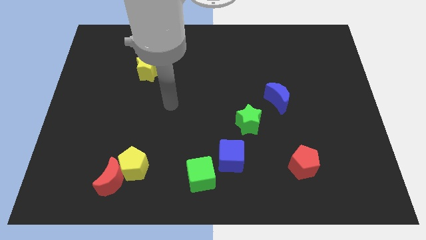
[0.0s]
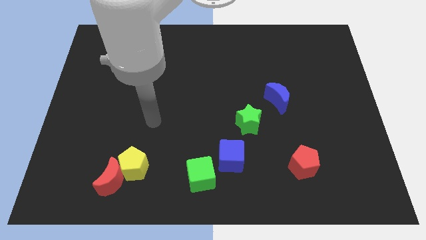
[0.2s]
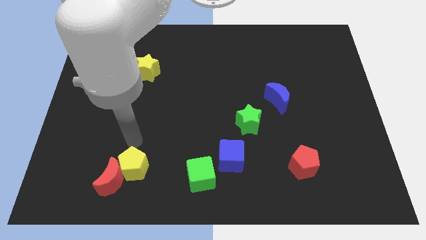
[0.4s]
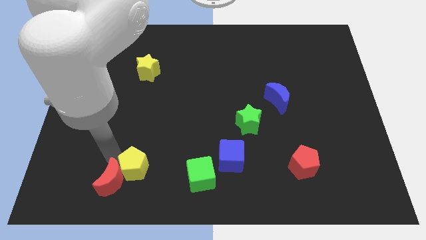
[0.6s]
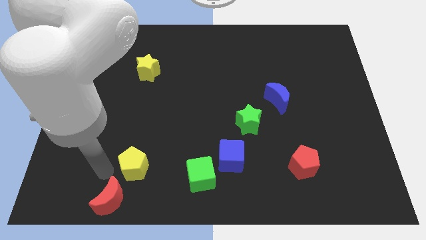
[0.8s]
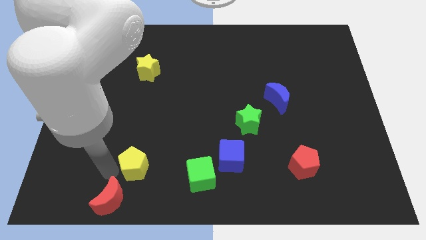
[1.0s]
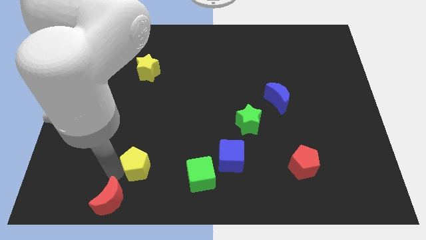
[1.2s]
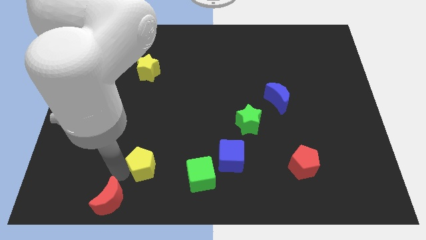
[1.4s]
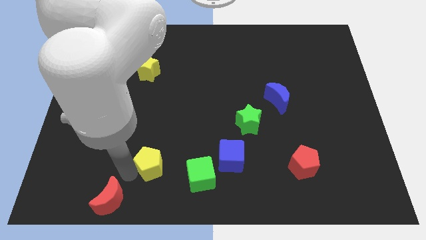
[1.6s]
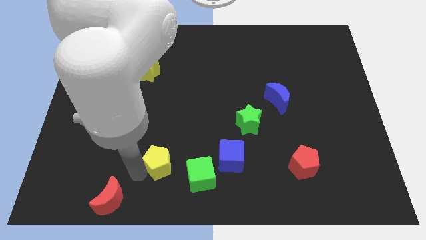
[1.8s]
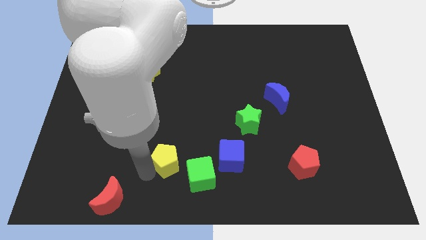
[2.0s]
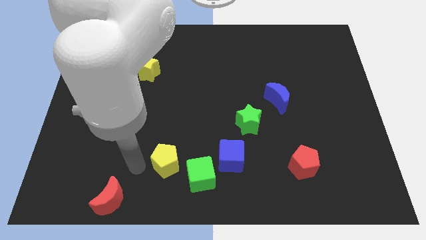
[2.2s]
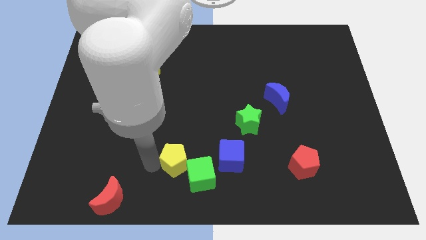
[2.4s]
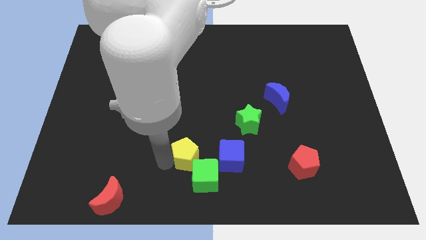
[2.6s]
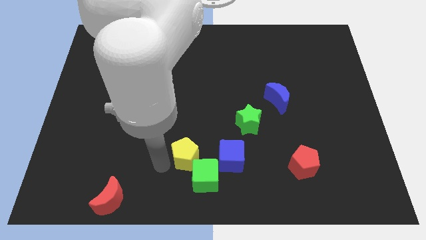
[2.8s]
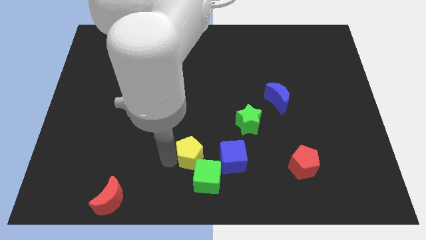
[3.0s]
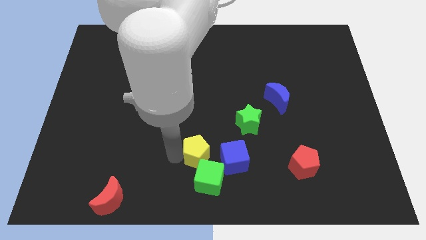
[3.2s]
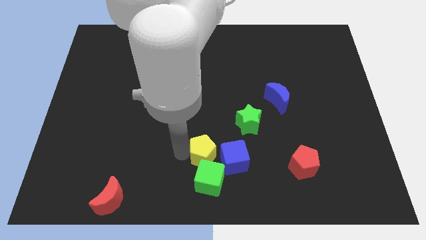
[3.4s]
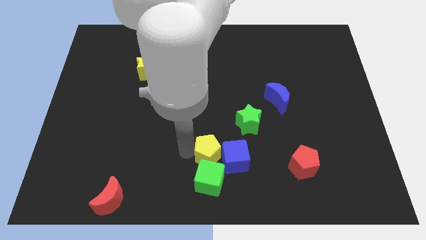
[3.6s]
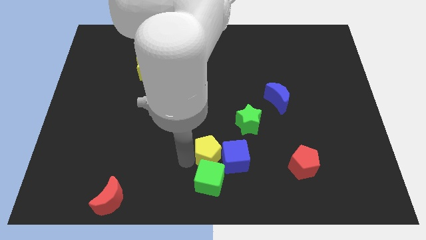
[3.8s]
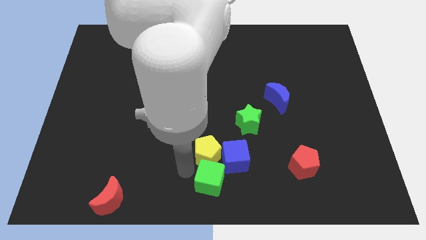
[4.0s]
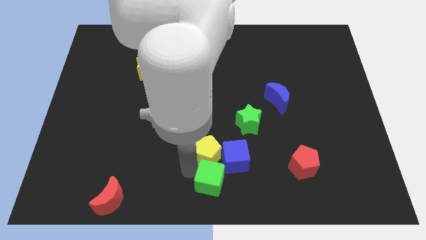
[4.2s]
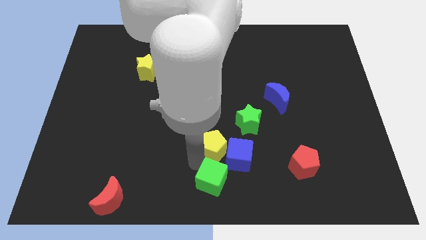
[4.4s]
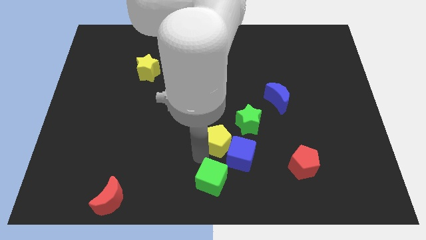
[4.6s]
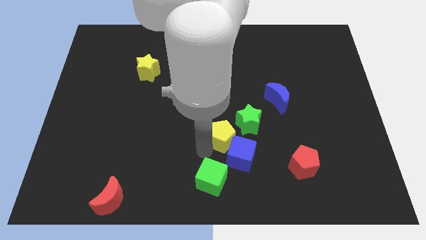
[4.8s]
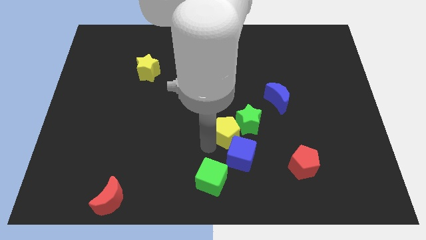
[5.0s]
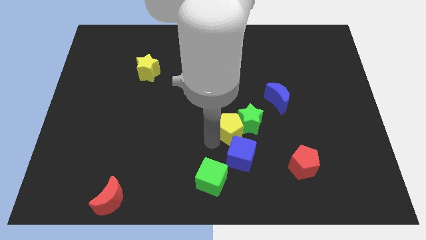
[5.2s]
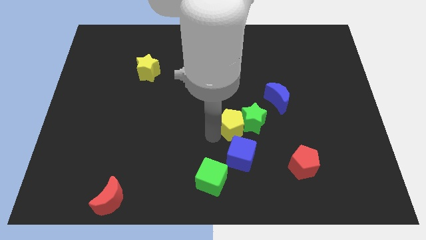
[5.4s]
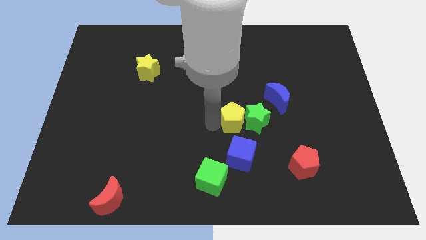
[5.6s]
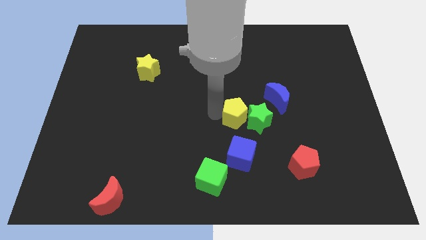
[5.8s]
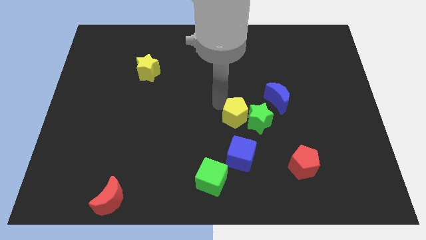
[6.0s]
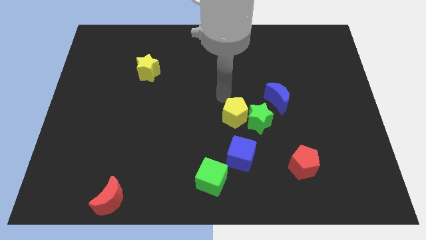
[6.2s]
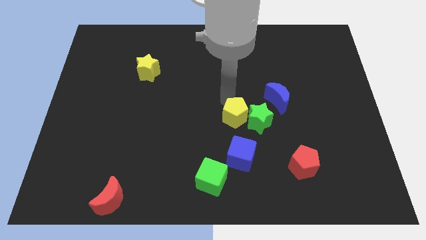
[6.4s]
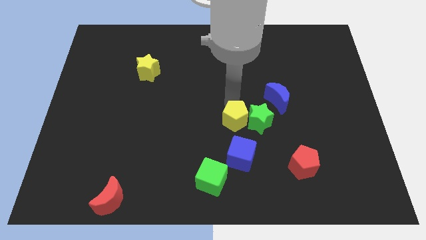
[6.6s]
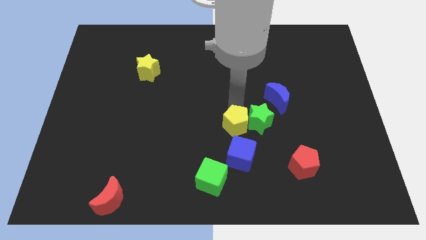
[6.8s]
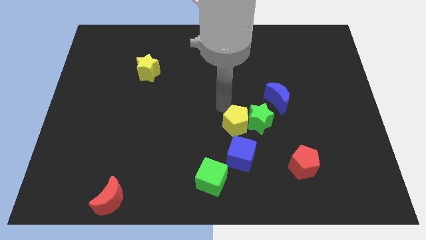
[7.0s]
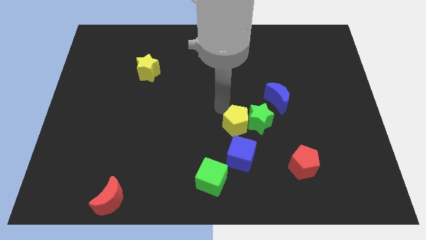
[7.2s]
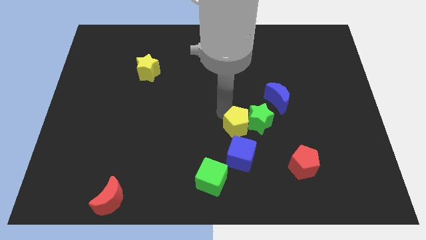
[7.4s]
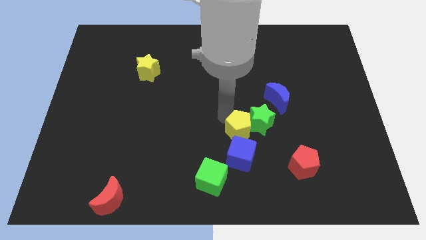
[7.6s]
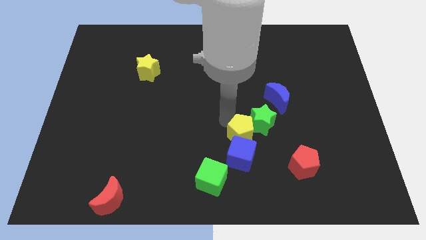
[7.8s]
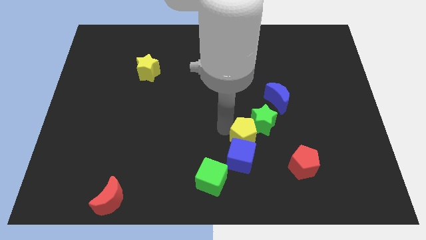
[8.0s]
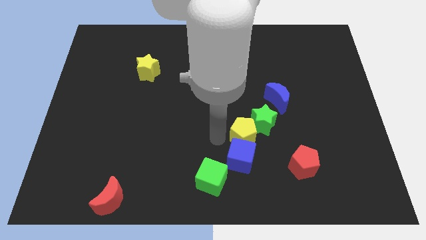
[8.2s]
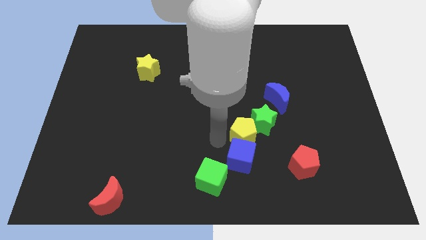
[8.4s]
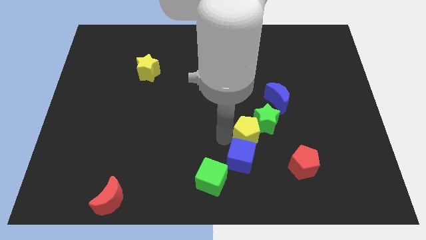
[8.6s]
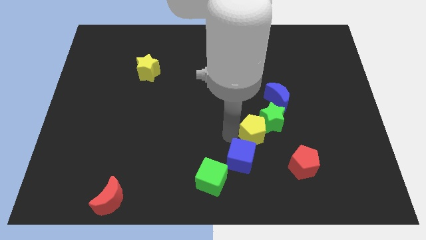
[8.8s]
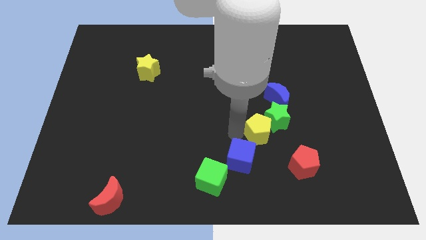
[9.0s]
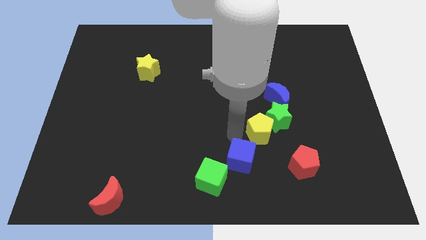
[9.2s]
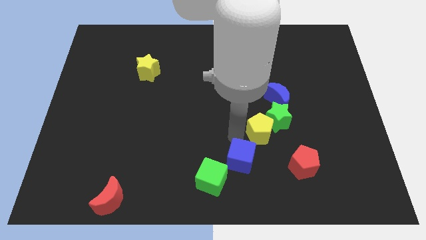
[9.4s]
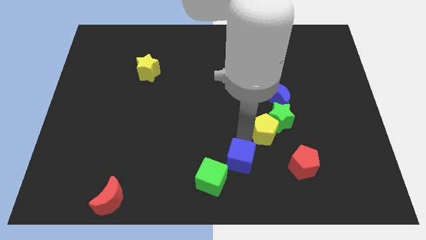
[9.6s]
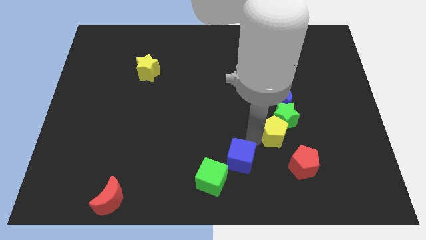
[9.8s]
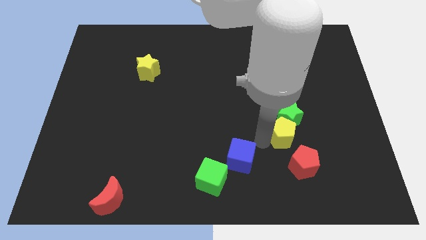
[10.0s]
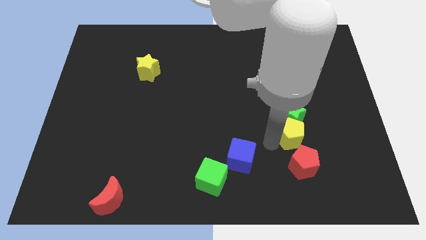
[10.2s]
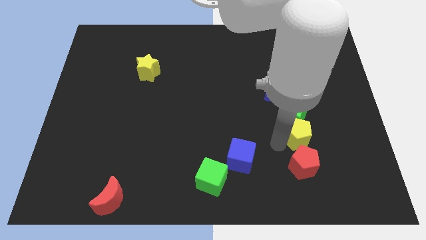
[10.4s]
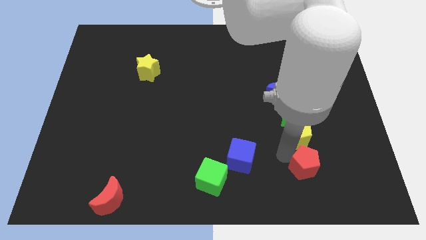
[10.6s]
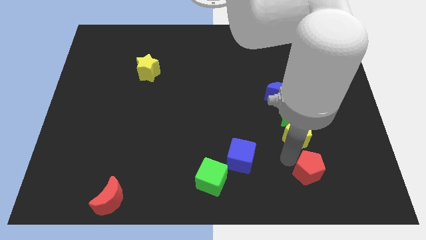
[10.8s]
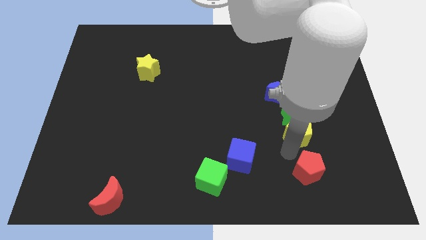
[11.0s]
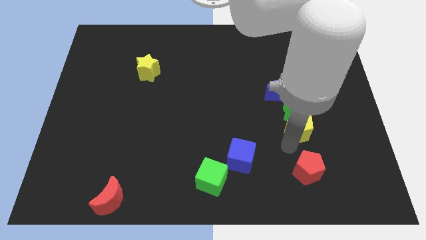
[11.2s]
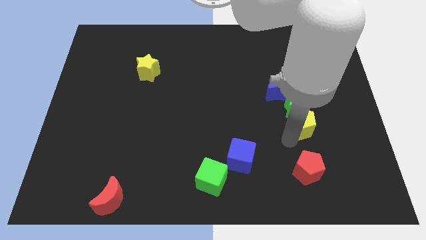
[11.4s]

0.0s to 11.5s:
slide the yellow pentagon to the bottom right side of the blue moon

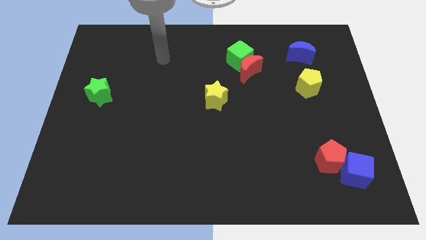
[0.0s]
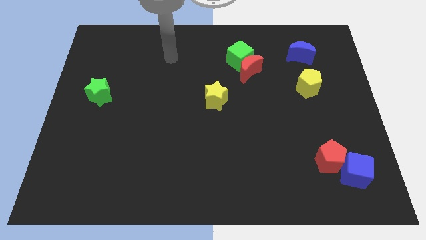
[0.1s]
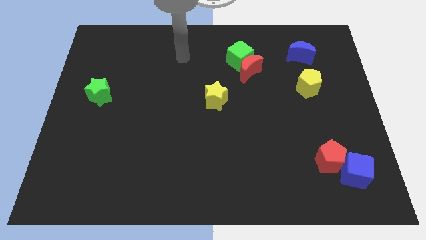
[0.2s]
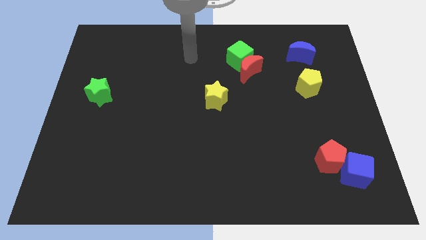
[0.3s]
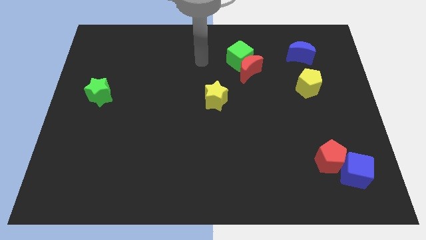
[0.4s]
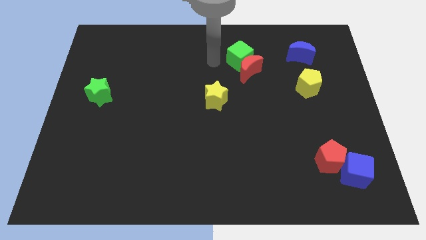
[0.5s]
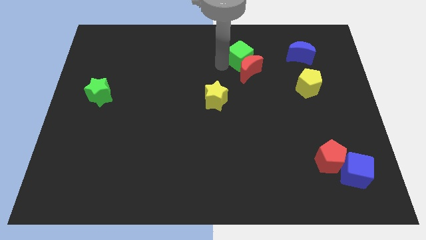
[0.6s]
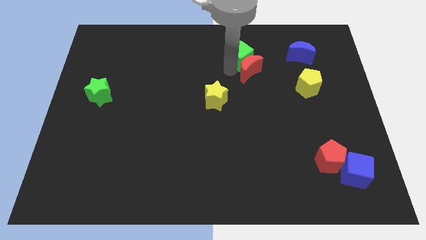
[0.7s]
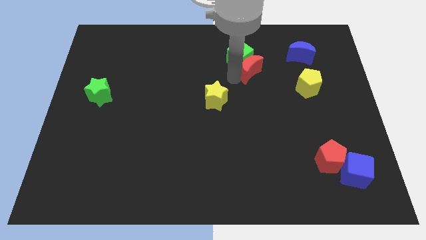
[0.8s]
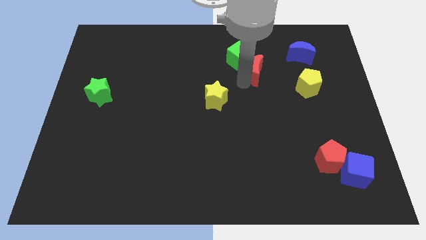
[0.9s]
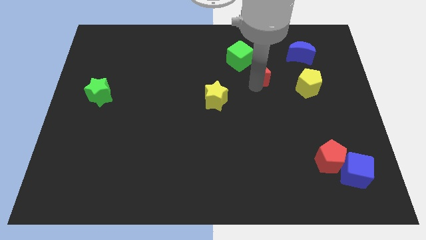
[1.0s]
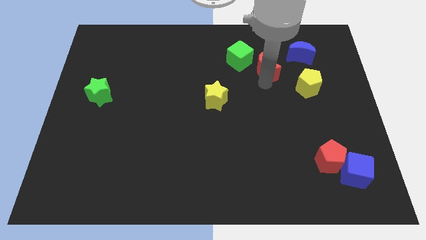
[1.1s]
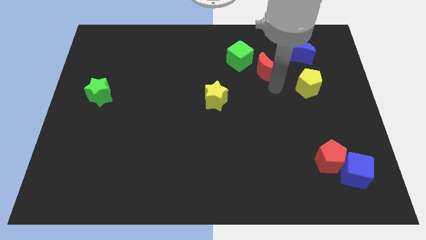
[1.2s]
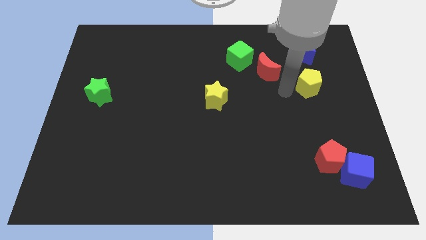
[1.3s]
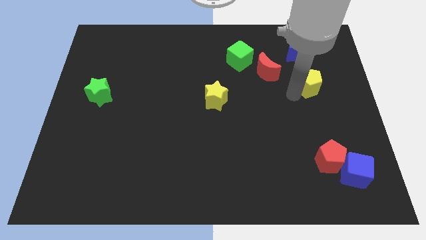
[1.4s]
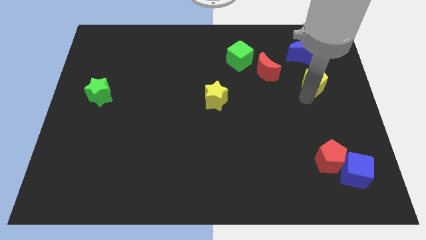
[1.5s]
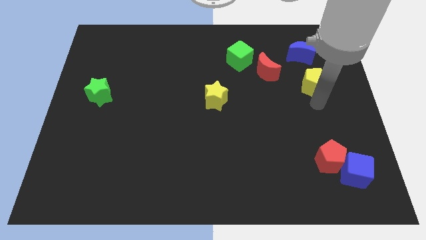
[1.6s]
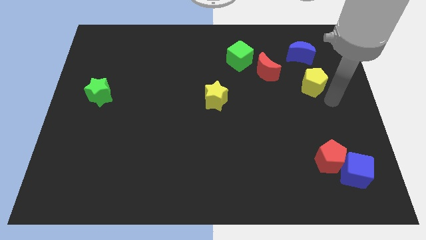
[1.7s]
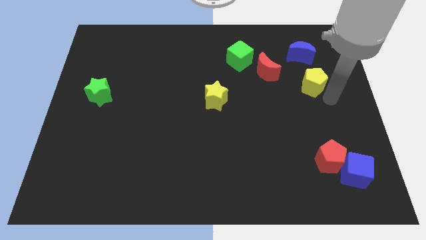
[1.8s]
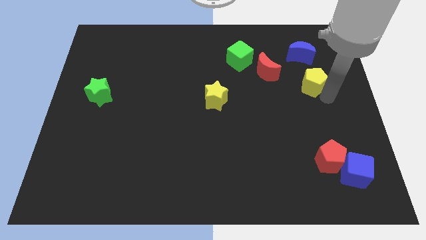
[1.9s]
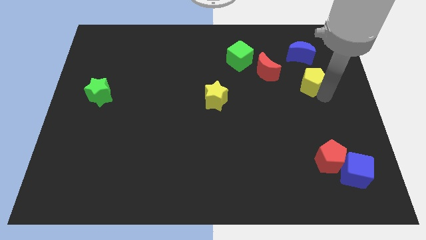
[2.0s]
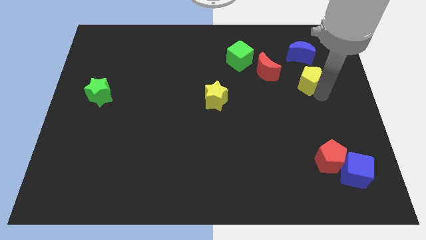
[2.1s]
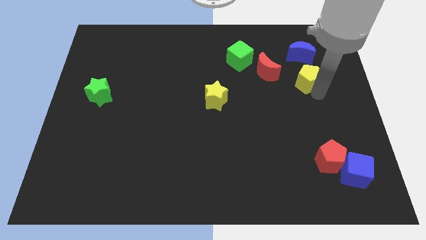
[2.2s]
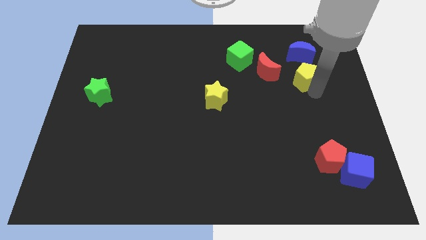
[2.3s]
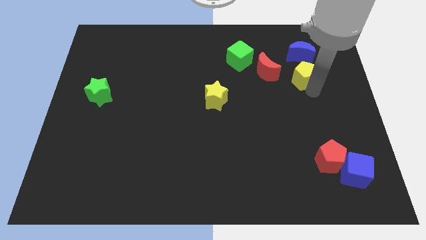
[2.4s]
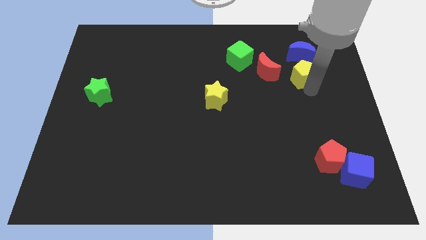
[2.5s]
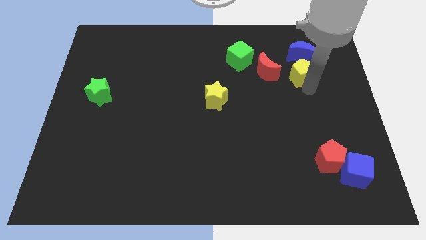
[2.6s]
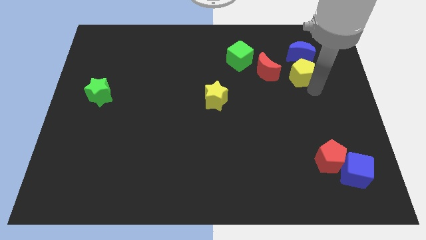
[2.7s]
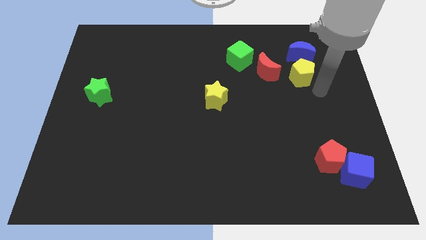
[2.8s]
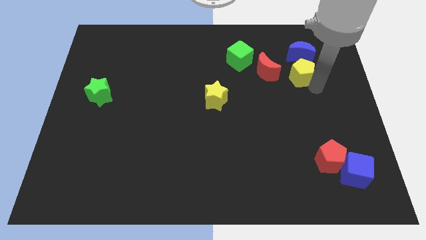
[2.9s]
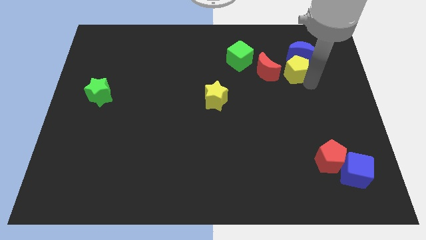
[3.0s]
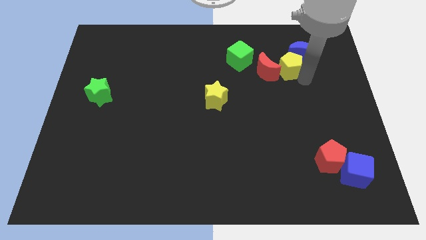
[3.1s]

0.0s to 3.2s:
put the yellow pentagon to the right side of the green cube
